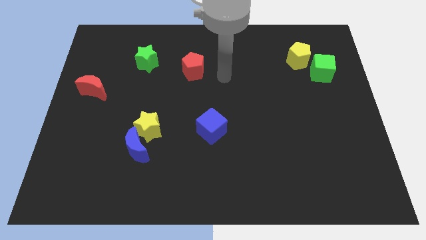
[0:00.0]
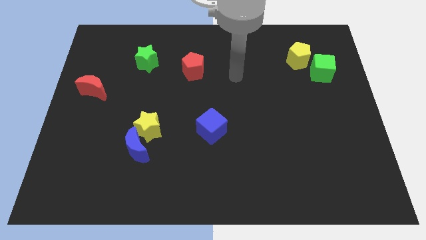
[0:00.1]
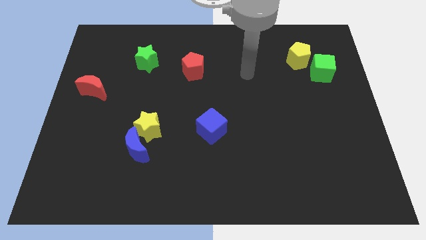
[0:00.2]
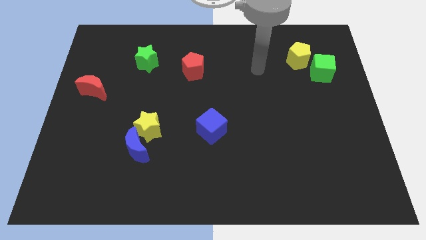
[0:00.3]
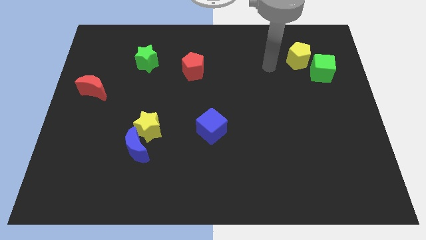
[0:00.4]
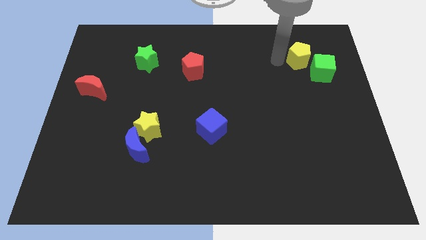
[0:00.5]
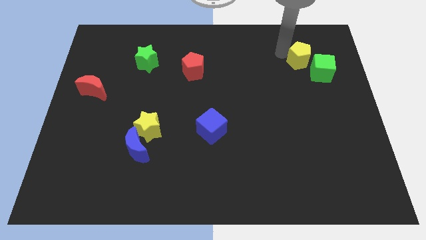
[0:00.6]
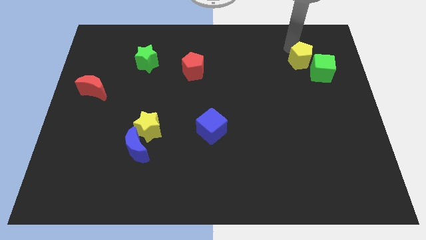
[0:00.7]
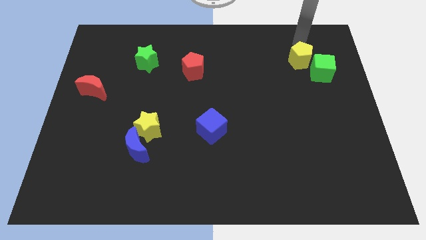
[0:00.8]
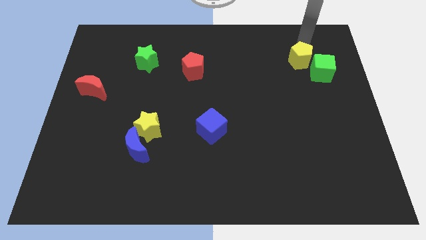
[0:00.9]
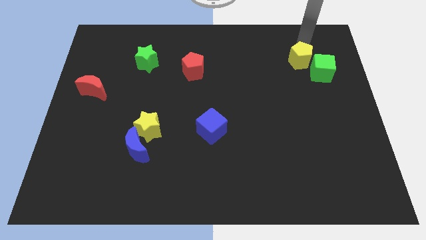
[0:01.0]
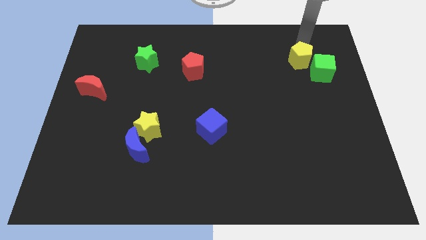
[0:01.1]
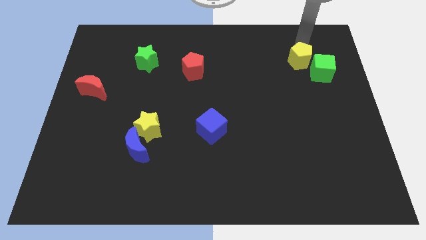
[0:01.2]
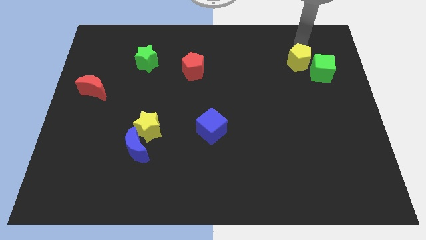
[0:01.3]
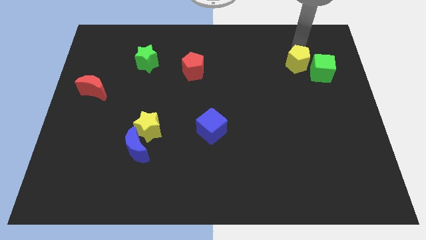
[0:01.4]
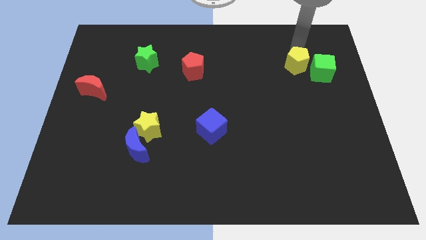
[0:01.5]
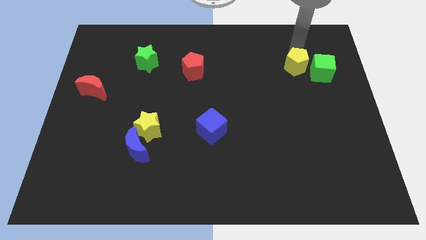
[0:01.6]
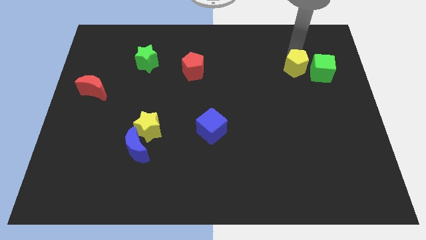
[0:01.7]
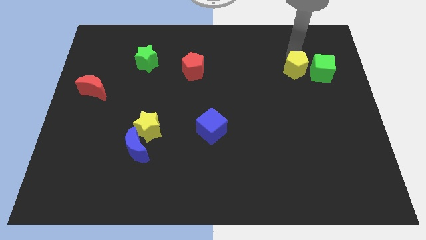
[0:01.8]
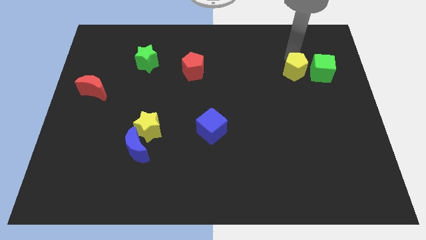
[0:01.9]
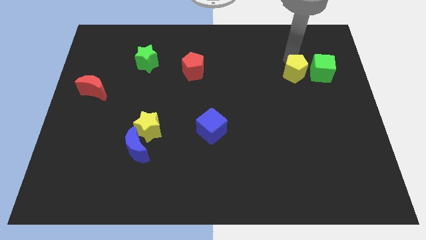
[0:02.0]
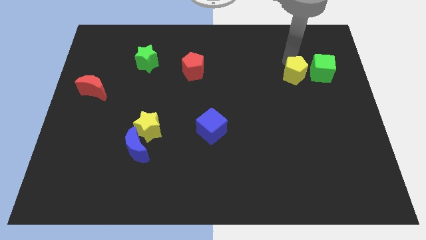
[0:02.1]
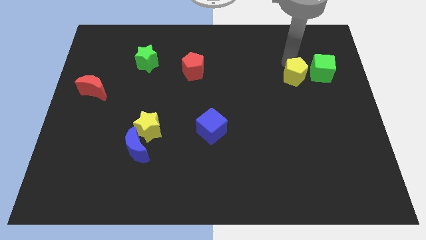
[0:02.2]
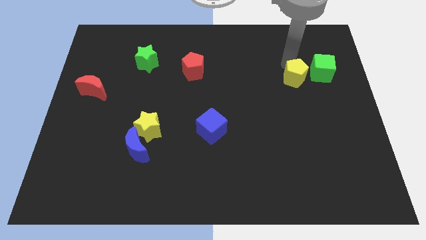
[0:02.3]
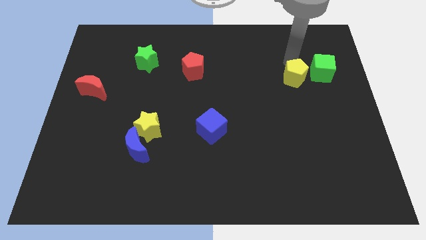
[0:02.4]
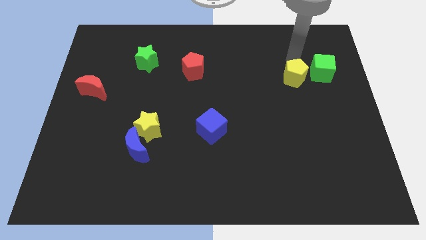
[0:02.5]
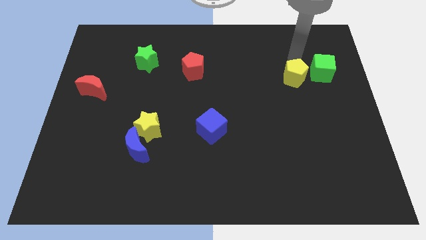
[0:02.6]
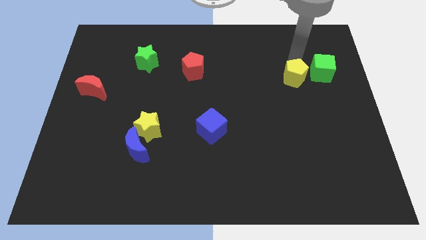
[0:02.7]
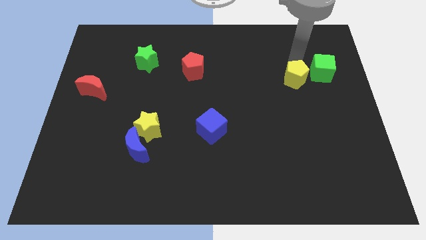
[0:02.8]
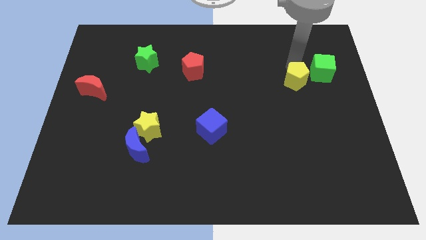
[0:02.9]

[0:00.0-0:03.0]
slide the yellow pentagon downwards a little bit

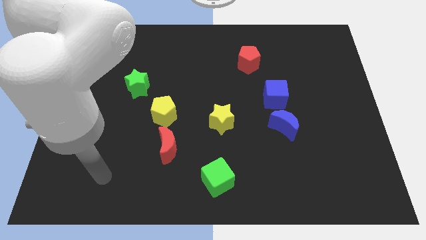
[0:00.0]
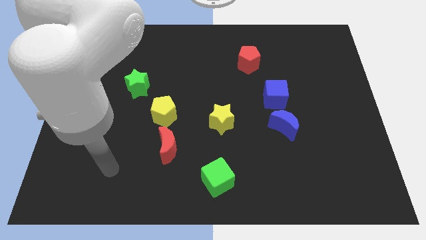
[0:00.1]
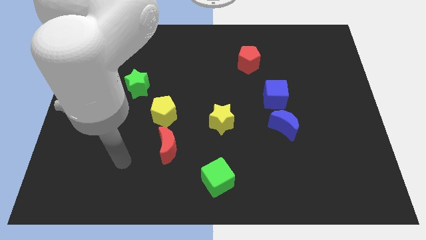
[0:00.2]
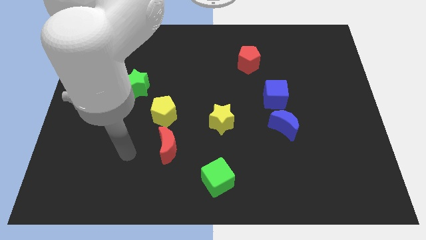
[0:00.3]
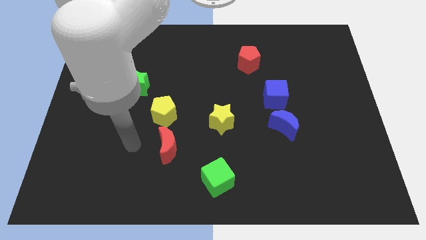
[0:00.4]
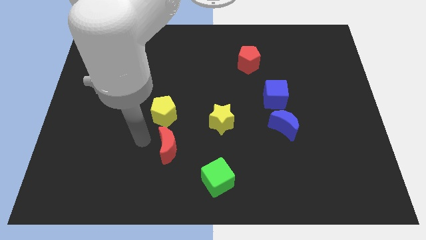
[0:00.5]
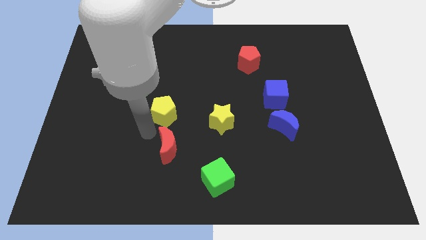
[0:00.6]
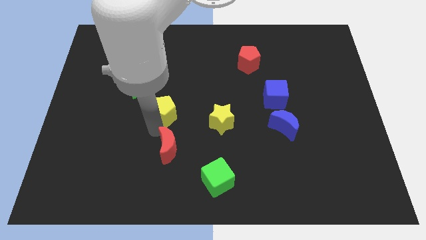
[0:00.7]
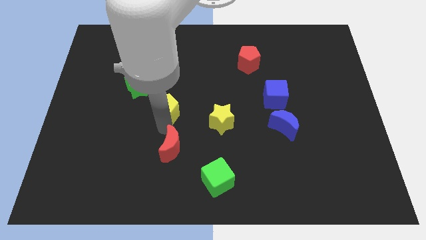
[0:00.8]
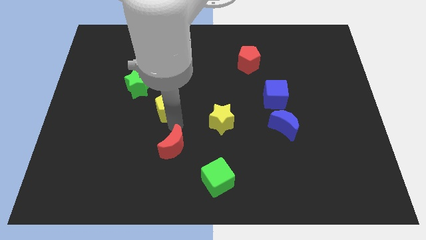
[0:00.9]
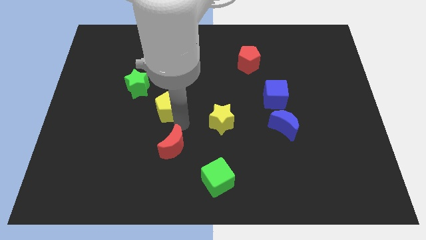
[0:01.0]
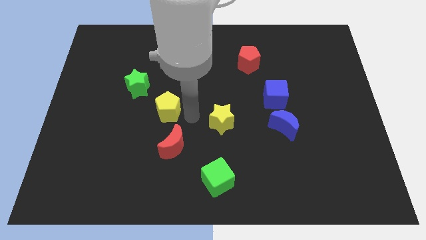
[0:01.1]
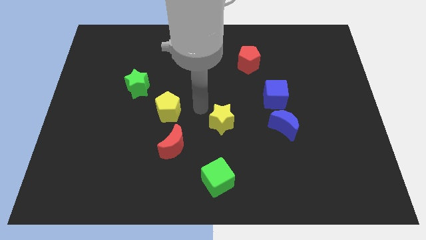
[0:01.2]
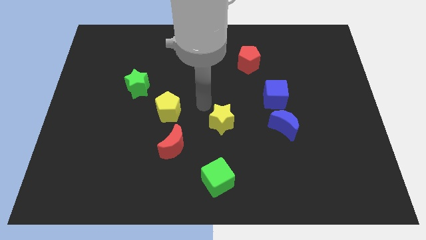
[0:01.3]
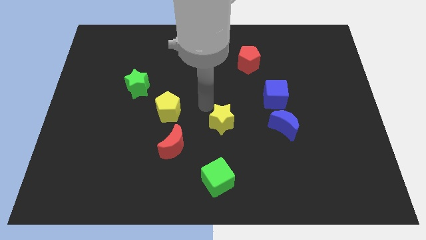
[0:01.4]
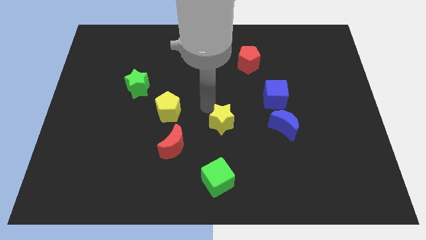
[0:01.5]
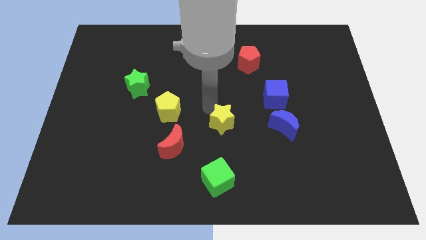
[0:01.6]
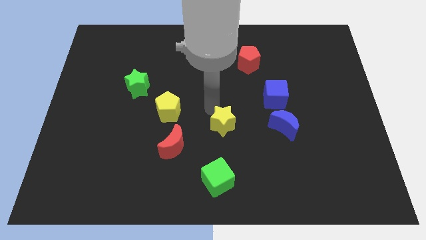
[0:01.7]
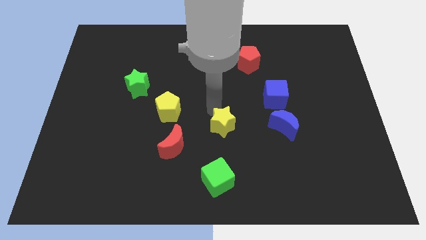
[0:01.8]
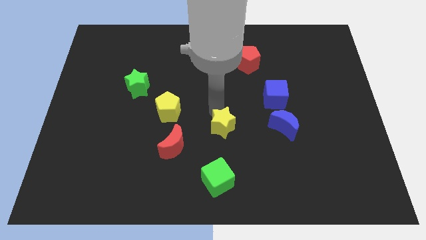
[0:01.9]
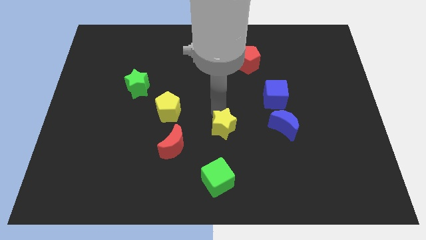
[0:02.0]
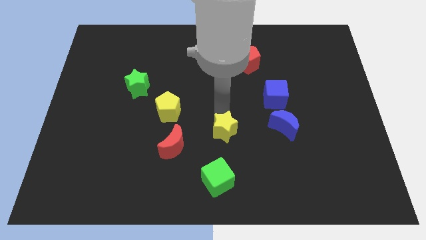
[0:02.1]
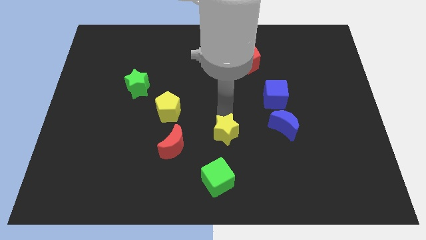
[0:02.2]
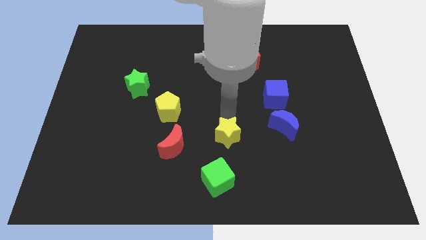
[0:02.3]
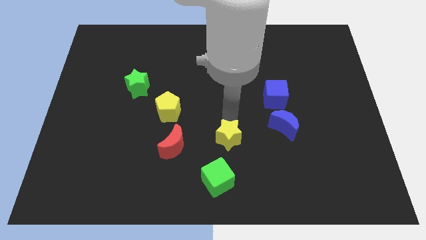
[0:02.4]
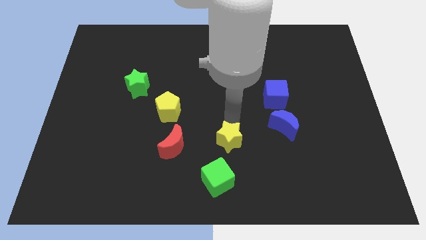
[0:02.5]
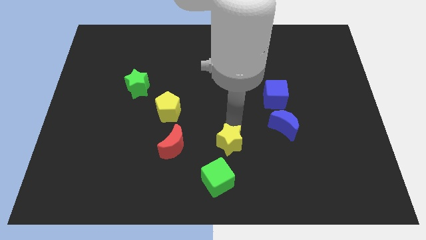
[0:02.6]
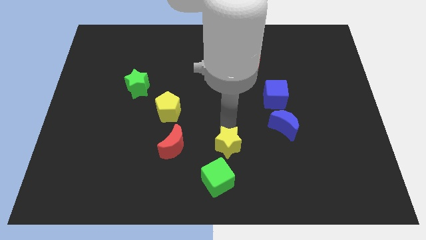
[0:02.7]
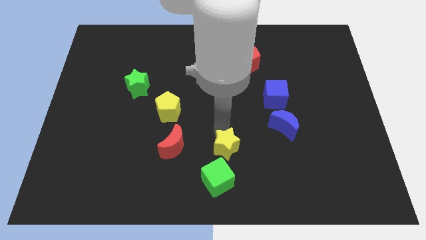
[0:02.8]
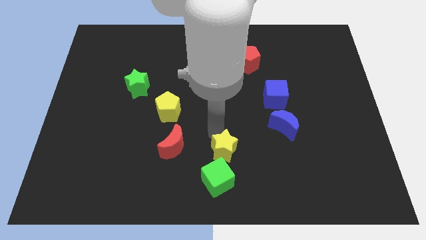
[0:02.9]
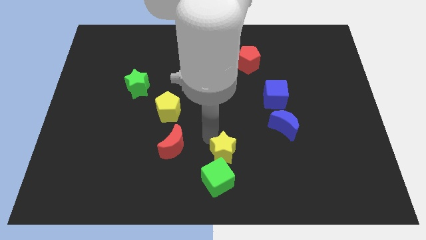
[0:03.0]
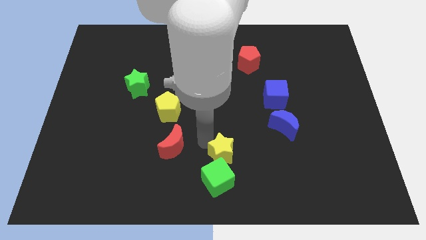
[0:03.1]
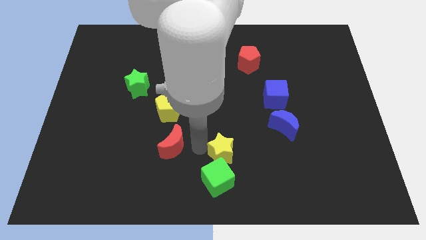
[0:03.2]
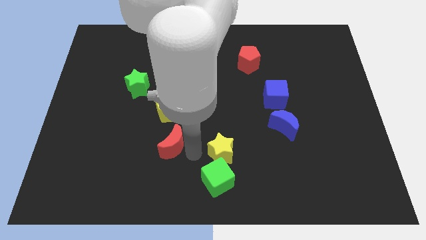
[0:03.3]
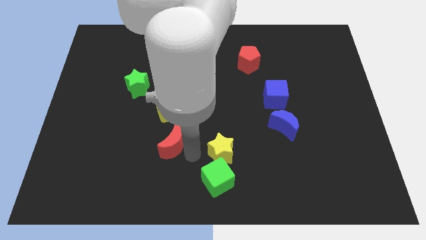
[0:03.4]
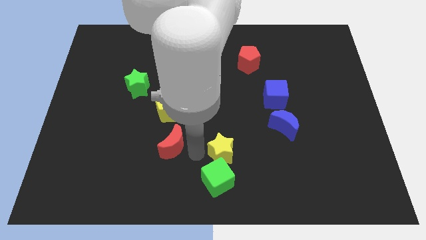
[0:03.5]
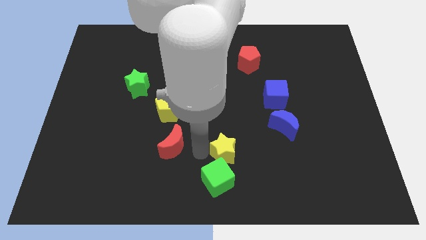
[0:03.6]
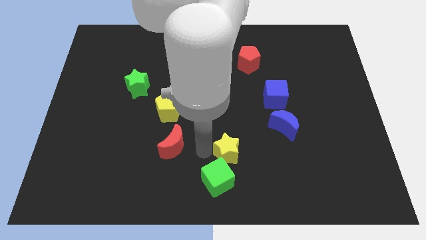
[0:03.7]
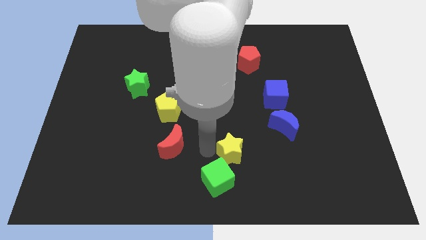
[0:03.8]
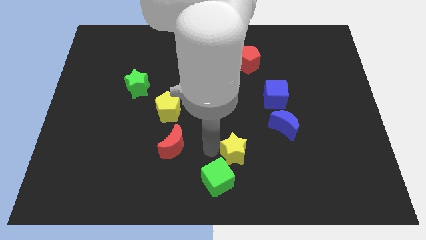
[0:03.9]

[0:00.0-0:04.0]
push the yellow star downwards and right diagonally a little

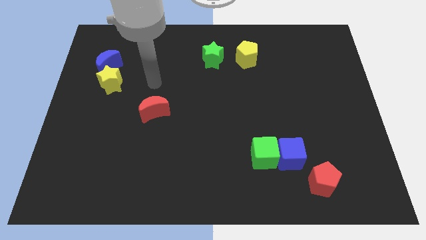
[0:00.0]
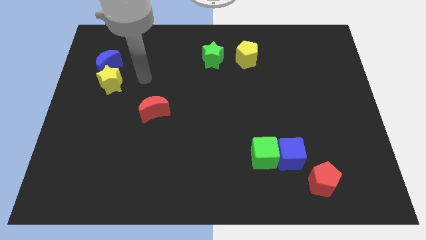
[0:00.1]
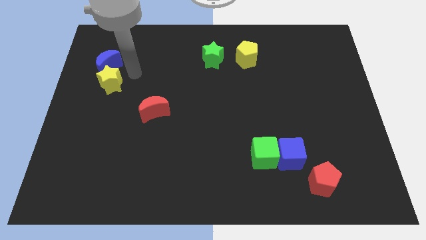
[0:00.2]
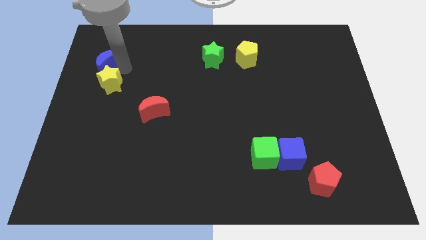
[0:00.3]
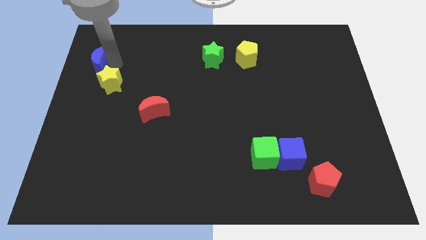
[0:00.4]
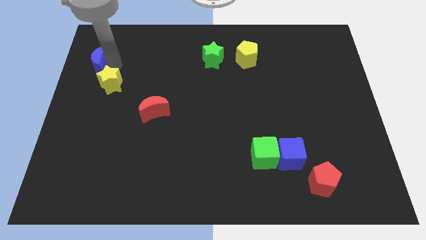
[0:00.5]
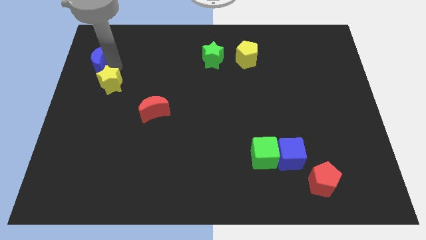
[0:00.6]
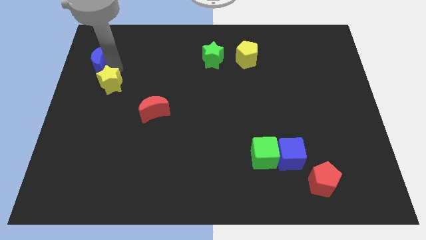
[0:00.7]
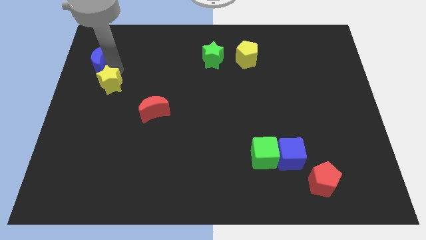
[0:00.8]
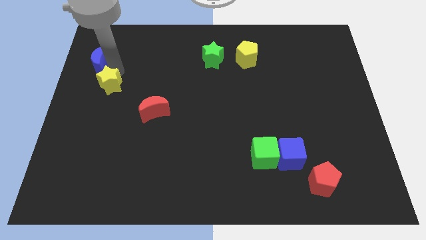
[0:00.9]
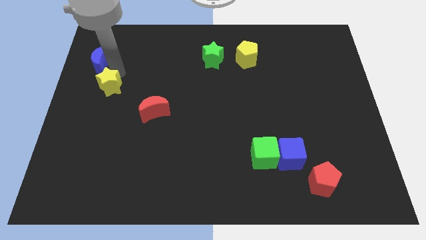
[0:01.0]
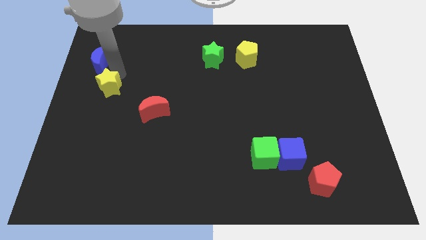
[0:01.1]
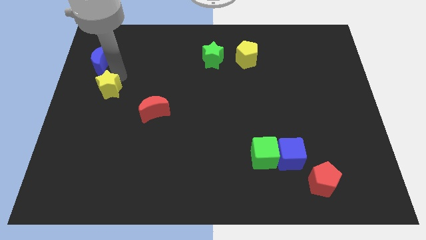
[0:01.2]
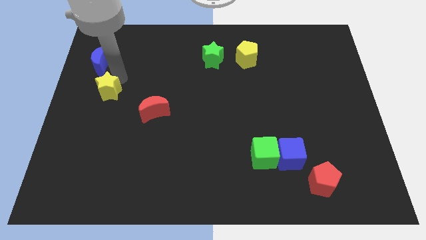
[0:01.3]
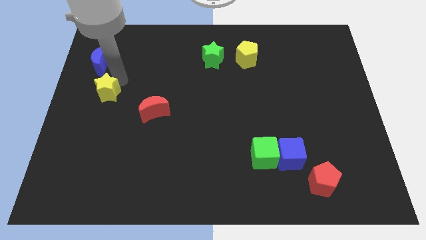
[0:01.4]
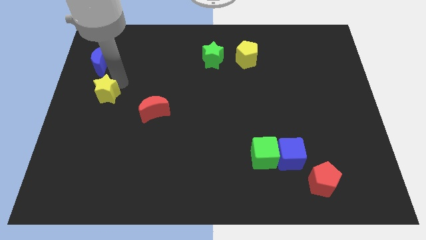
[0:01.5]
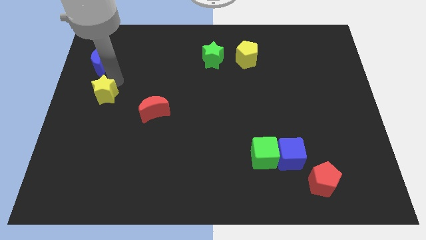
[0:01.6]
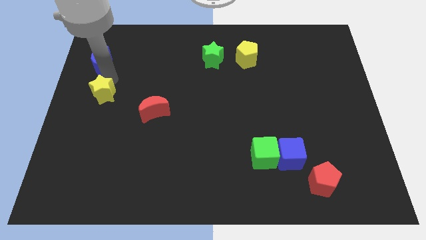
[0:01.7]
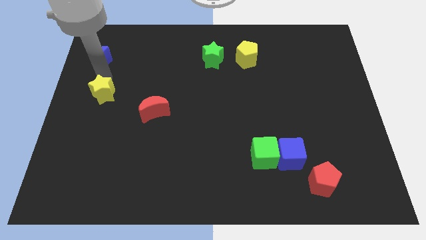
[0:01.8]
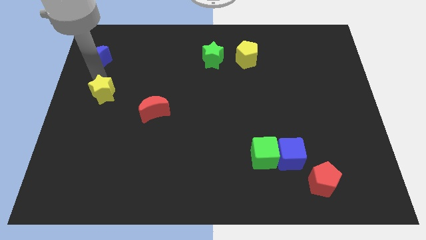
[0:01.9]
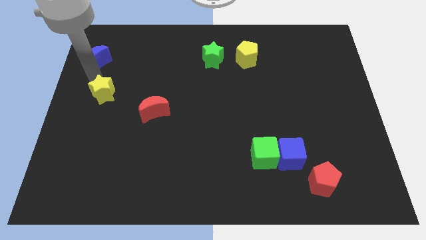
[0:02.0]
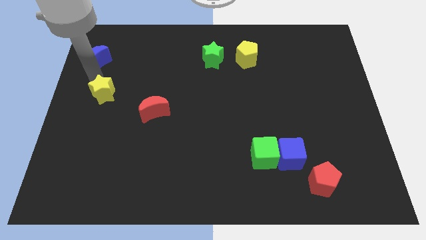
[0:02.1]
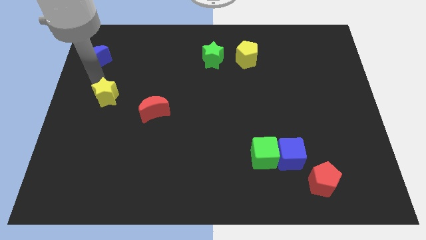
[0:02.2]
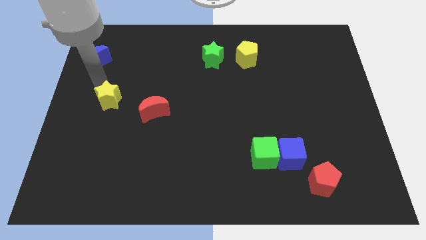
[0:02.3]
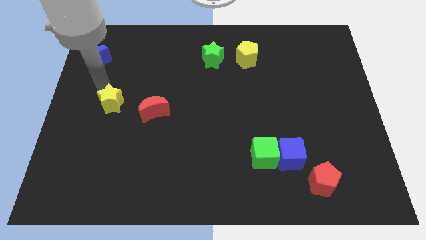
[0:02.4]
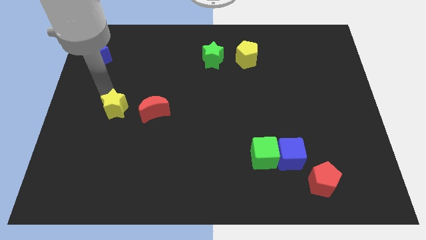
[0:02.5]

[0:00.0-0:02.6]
push the yellow star down and right diagonally a little
